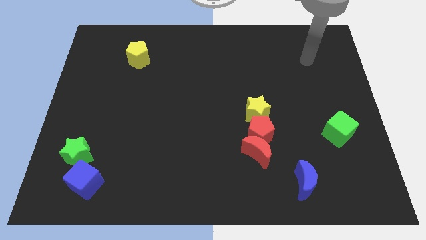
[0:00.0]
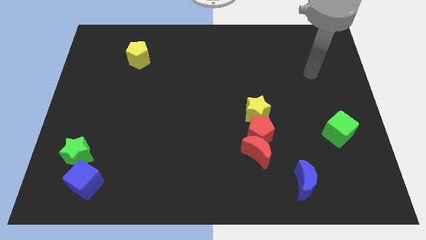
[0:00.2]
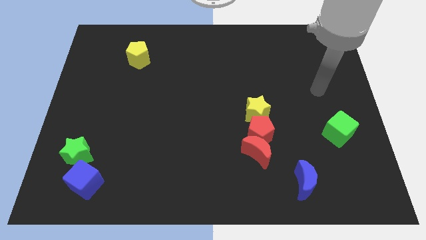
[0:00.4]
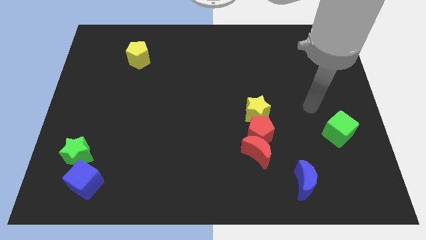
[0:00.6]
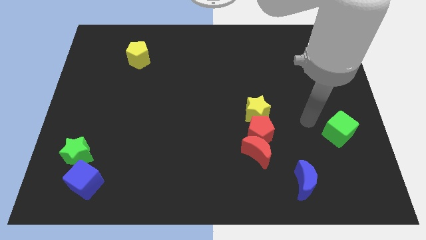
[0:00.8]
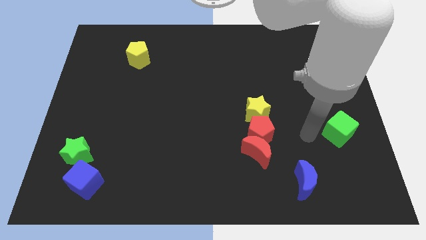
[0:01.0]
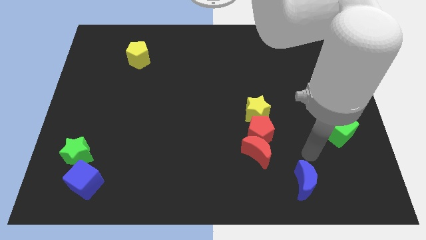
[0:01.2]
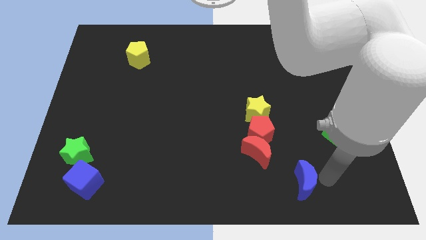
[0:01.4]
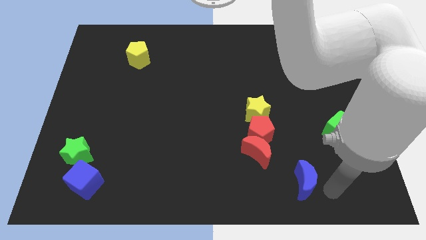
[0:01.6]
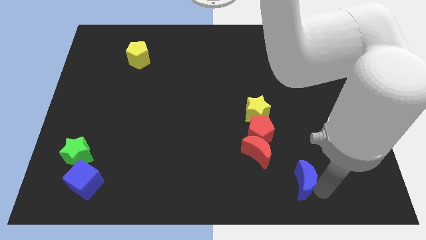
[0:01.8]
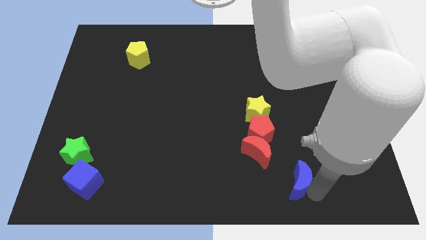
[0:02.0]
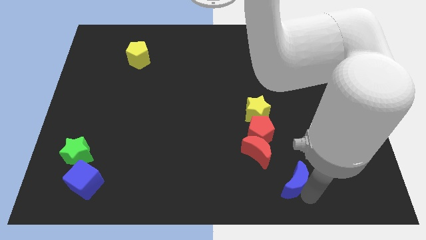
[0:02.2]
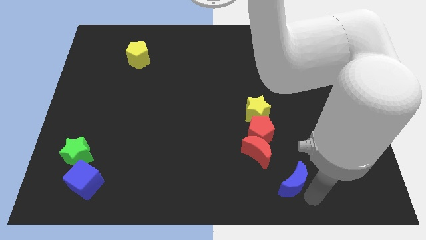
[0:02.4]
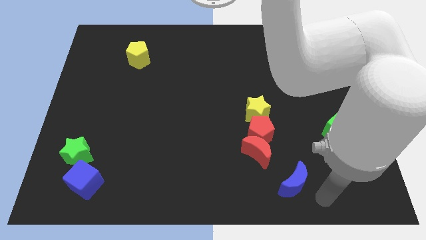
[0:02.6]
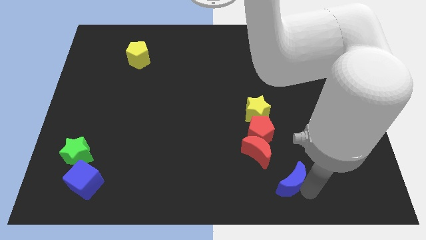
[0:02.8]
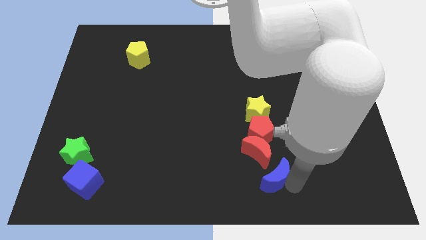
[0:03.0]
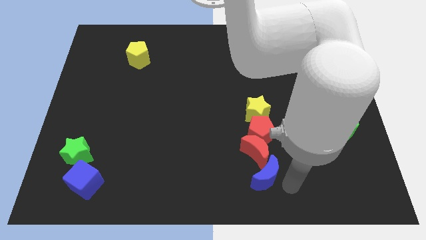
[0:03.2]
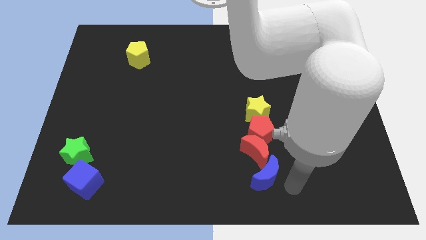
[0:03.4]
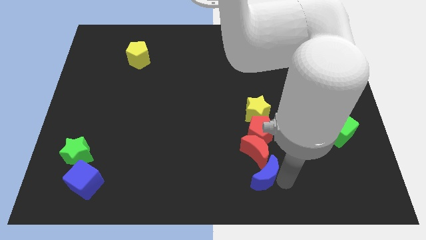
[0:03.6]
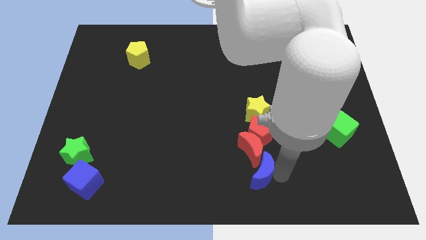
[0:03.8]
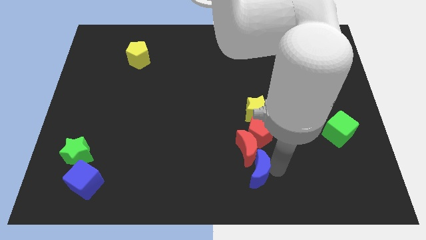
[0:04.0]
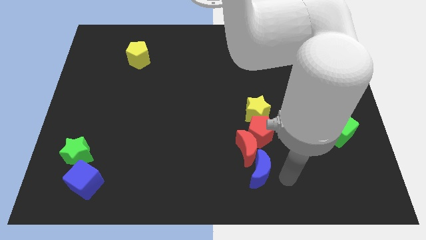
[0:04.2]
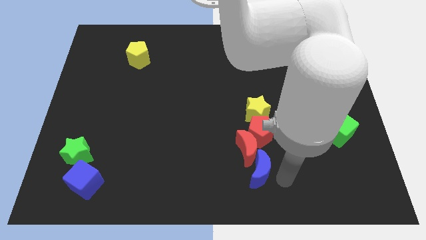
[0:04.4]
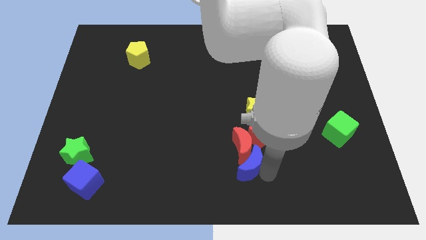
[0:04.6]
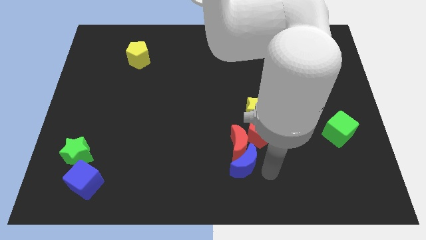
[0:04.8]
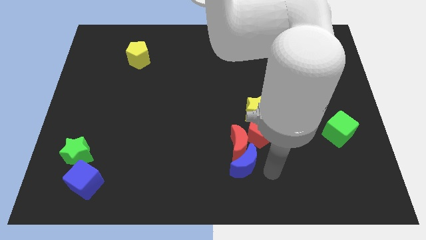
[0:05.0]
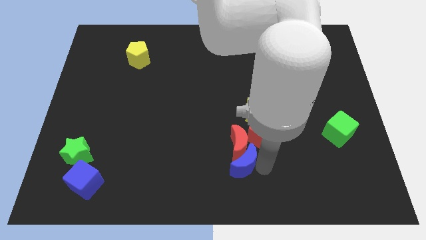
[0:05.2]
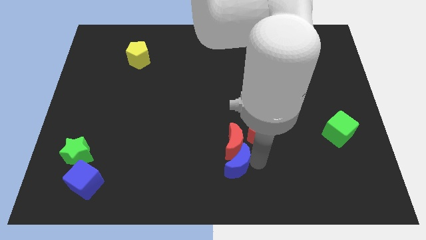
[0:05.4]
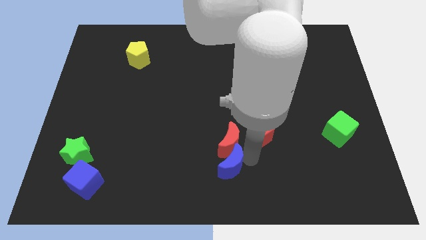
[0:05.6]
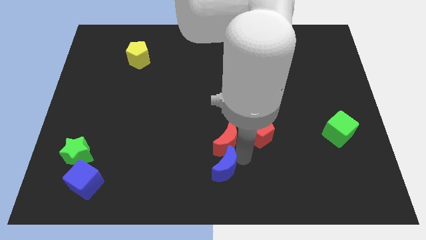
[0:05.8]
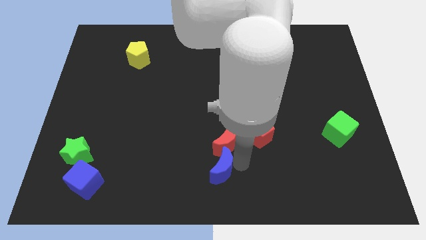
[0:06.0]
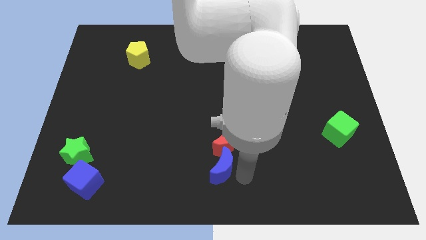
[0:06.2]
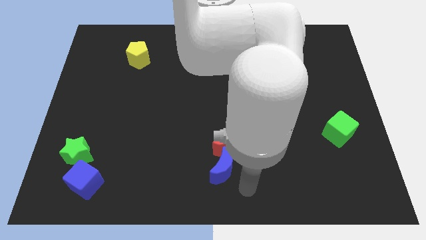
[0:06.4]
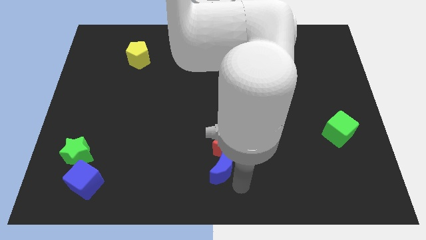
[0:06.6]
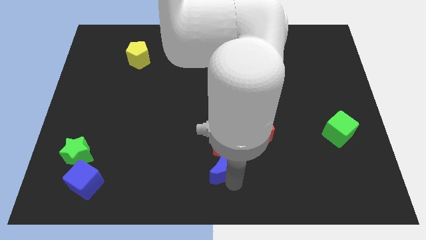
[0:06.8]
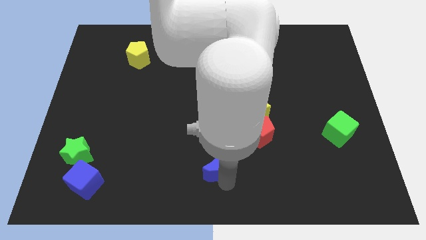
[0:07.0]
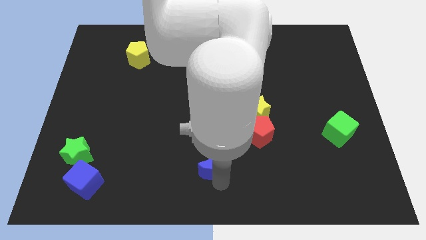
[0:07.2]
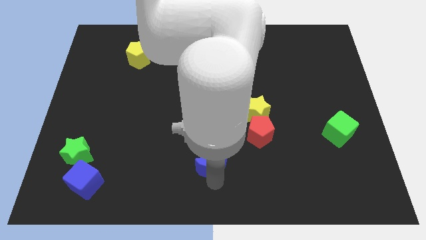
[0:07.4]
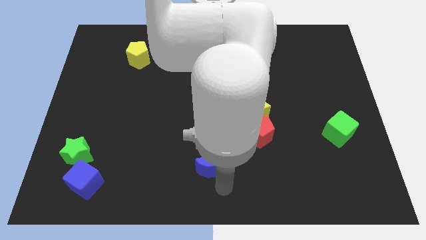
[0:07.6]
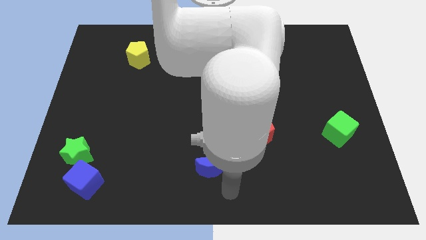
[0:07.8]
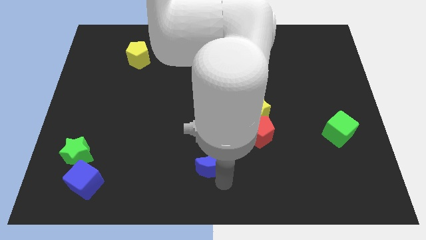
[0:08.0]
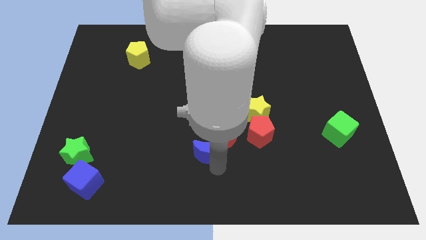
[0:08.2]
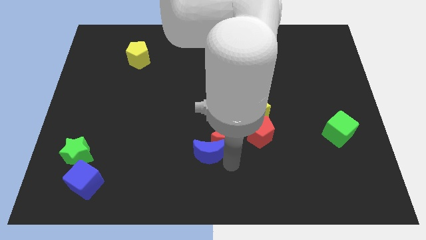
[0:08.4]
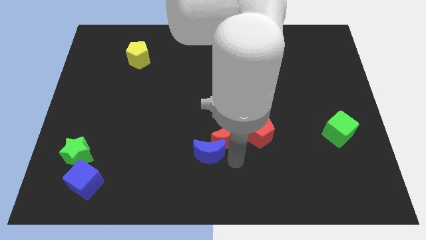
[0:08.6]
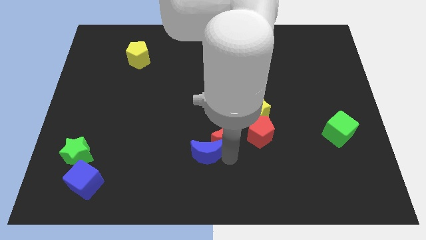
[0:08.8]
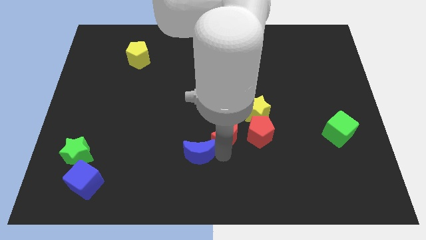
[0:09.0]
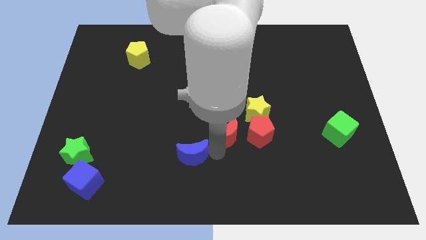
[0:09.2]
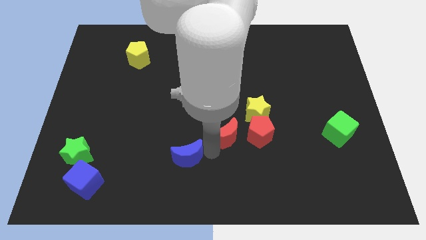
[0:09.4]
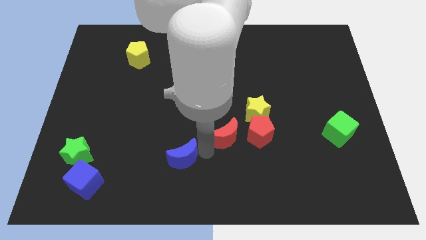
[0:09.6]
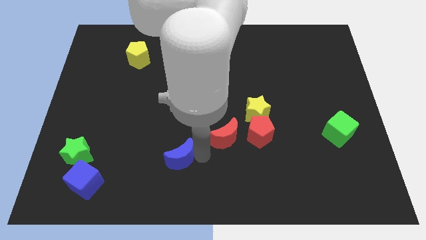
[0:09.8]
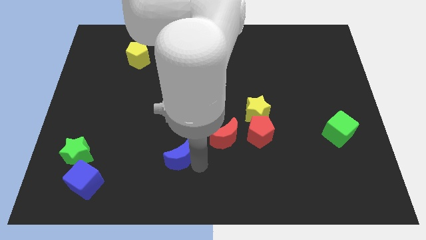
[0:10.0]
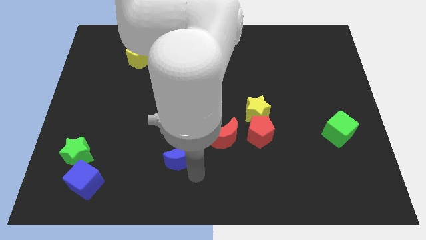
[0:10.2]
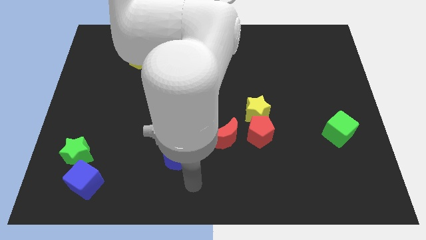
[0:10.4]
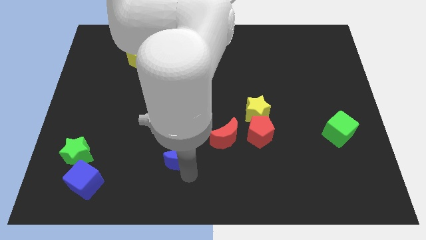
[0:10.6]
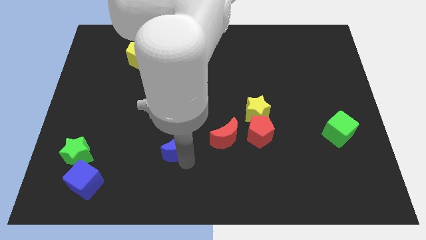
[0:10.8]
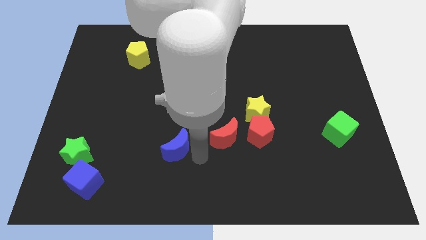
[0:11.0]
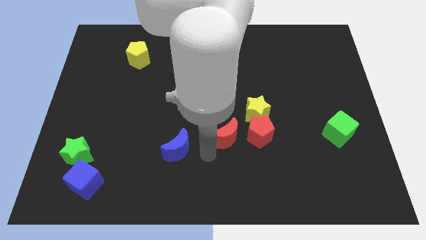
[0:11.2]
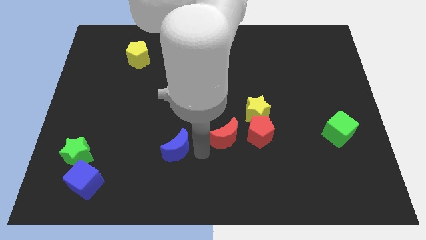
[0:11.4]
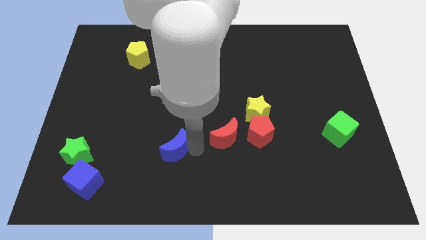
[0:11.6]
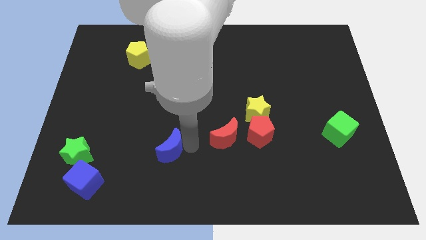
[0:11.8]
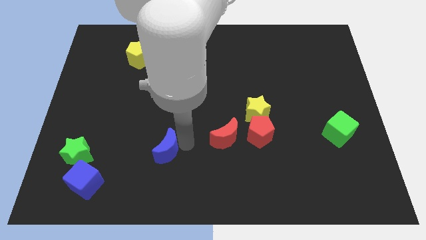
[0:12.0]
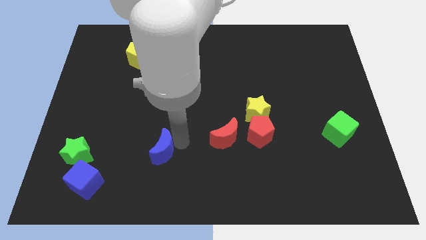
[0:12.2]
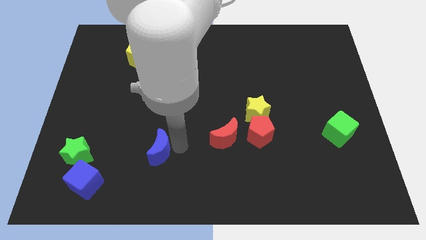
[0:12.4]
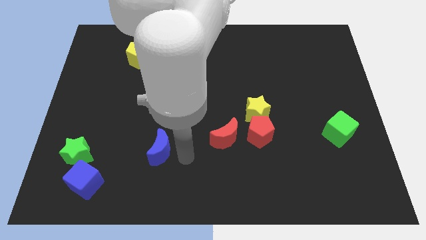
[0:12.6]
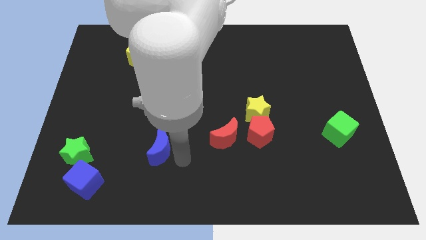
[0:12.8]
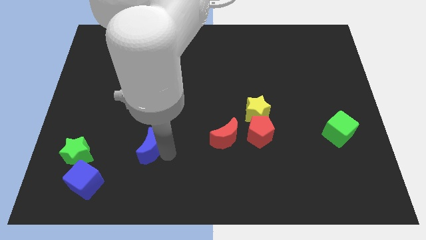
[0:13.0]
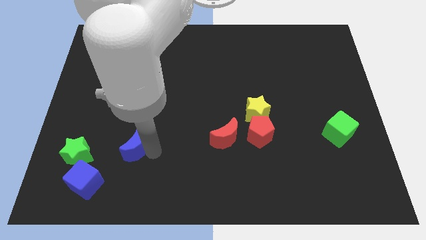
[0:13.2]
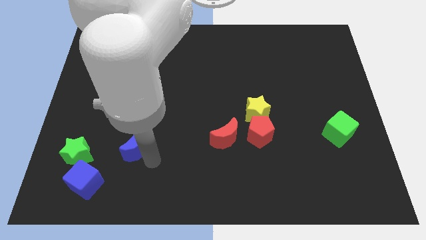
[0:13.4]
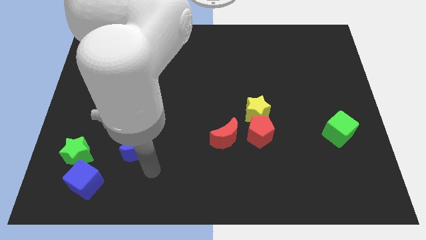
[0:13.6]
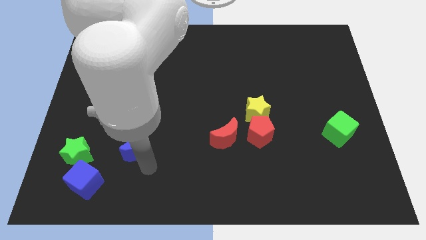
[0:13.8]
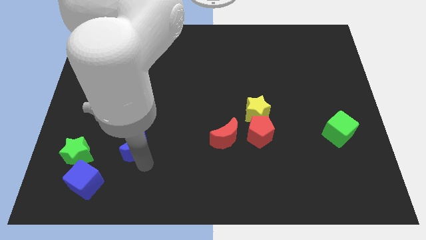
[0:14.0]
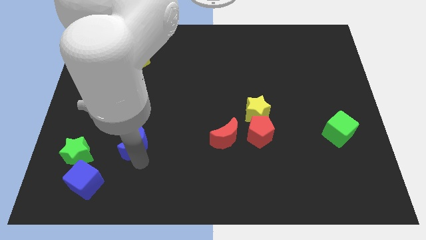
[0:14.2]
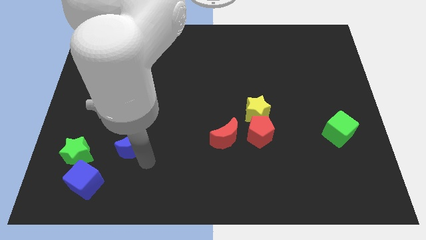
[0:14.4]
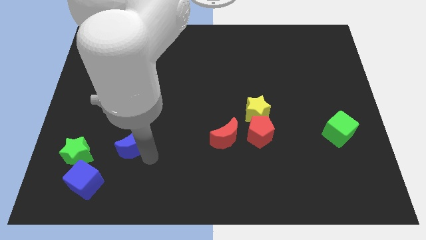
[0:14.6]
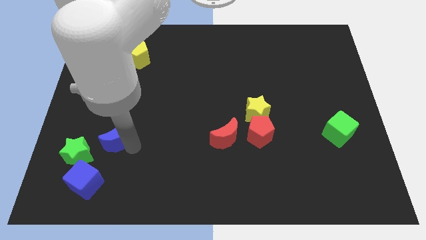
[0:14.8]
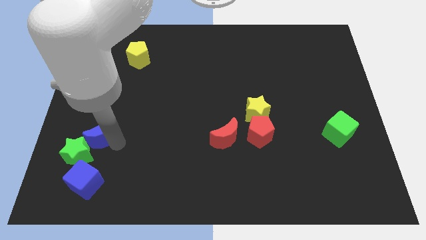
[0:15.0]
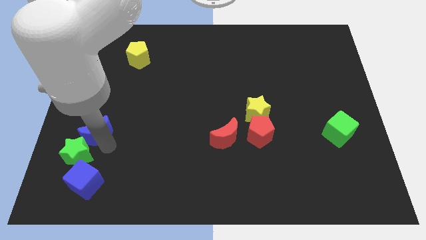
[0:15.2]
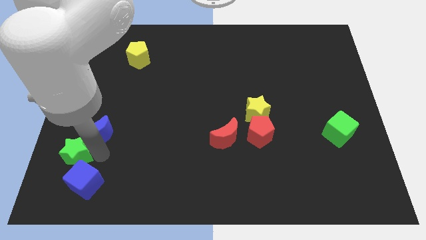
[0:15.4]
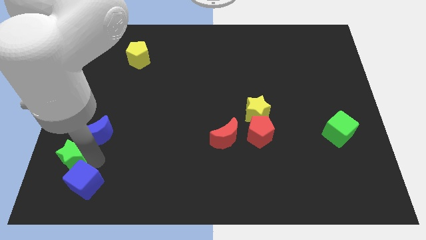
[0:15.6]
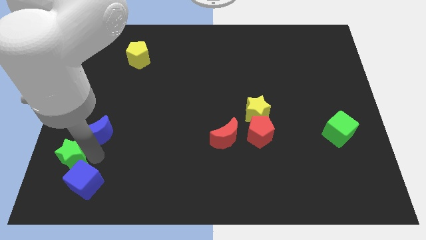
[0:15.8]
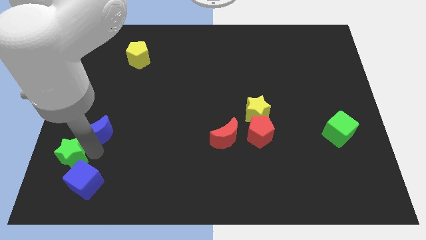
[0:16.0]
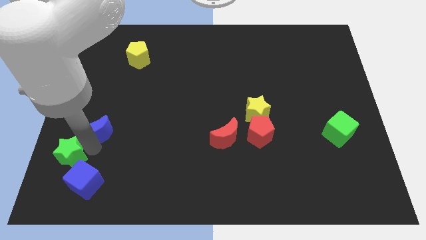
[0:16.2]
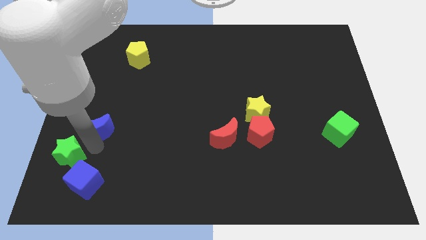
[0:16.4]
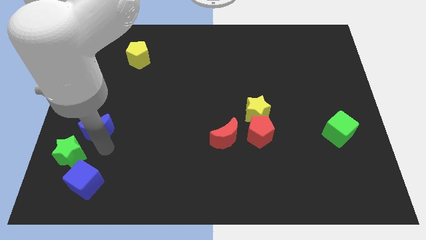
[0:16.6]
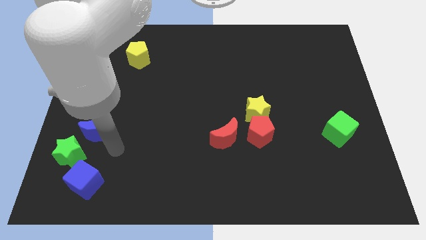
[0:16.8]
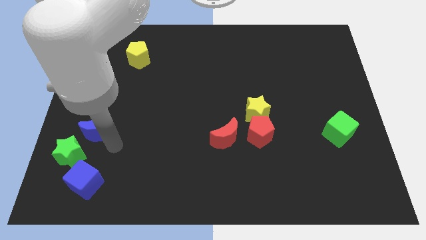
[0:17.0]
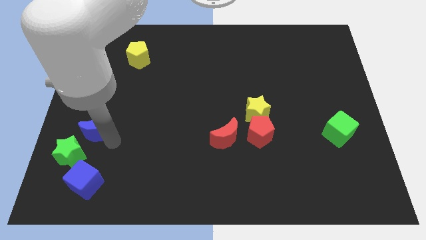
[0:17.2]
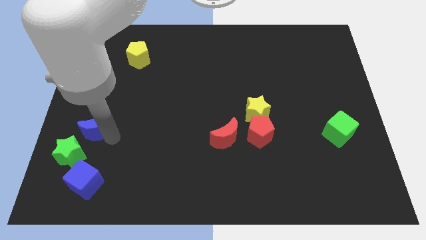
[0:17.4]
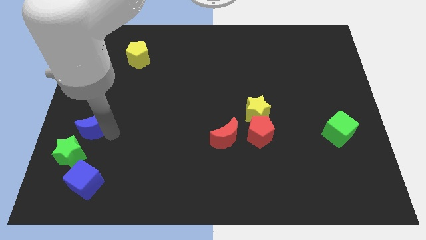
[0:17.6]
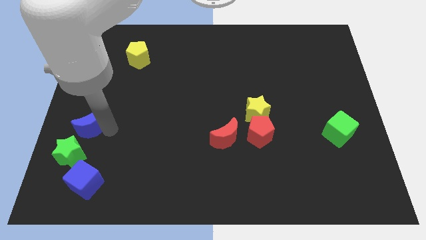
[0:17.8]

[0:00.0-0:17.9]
move the blue moon to the left side of the board
